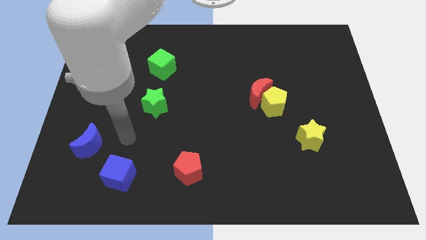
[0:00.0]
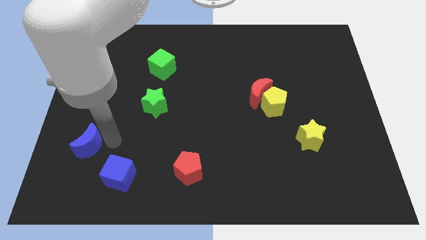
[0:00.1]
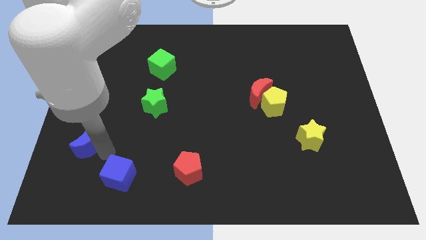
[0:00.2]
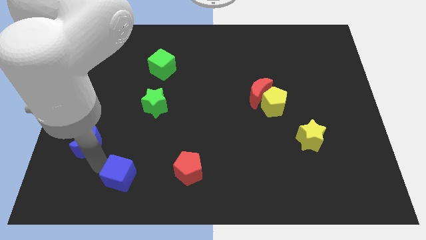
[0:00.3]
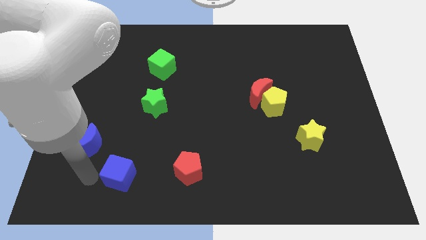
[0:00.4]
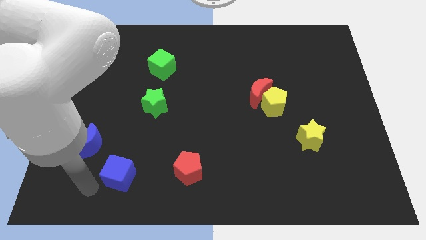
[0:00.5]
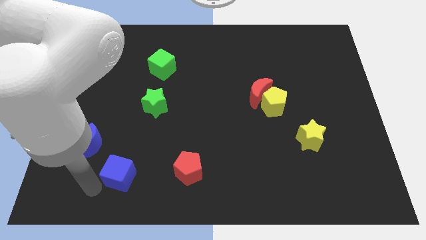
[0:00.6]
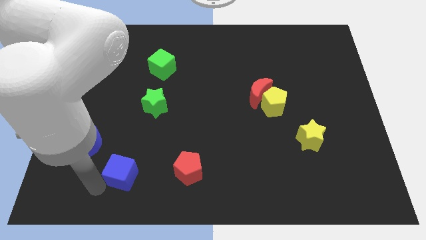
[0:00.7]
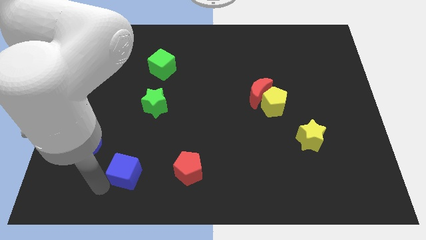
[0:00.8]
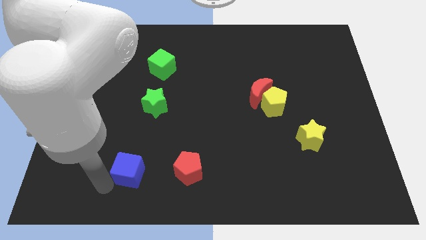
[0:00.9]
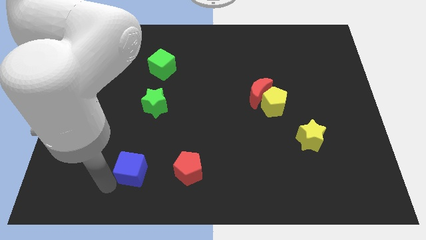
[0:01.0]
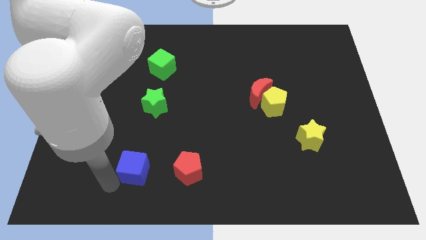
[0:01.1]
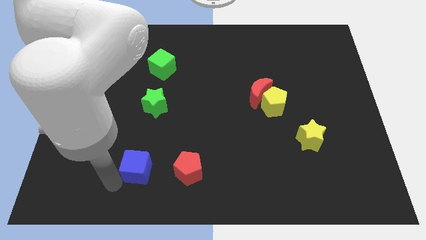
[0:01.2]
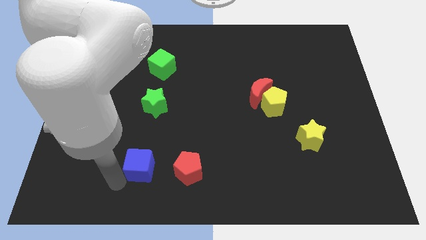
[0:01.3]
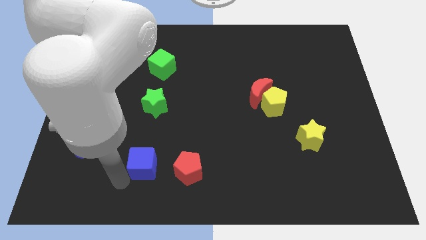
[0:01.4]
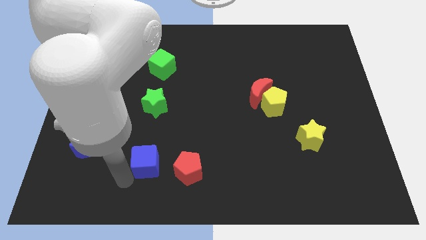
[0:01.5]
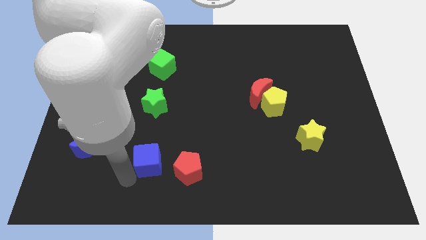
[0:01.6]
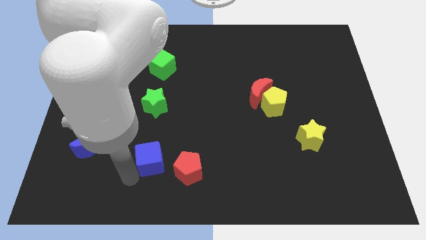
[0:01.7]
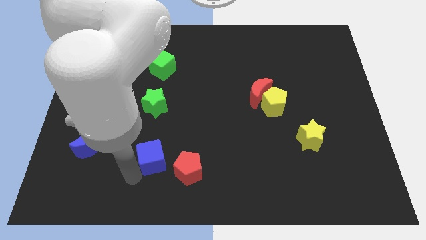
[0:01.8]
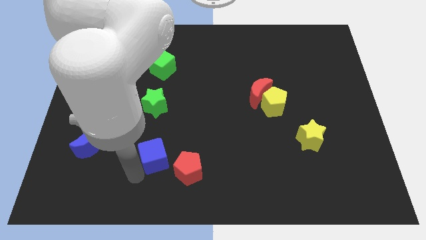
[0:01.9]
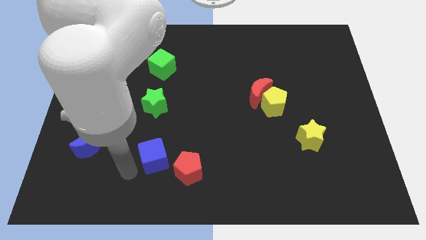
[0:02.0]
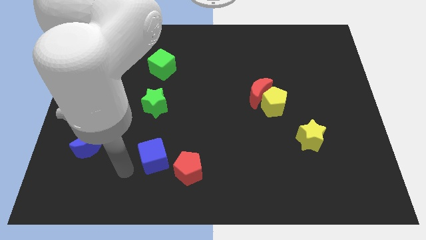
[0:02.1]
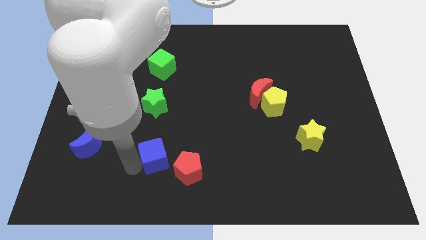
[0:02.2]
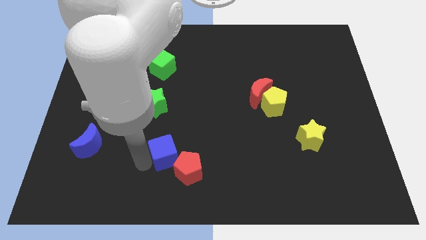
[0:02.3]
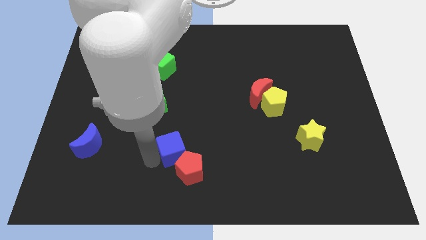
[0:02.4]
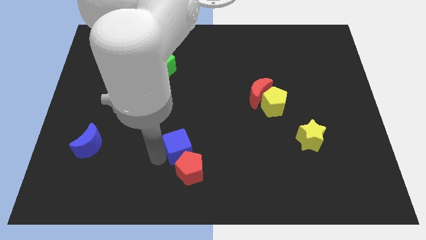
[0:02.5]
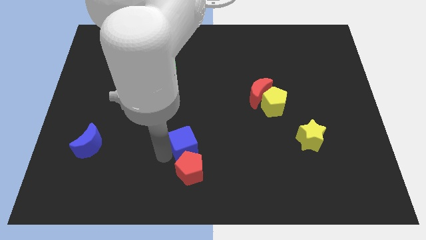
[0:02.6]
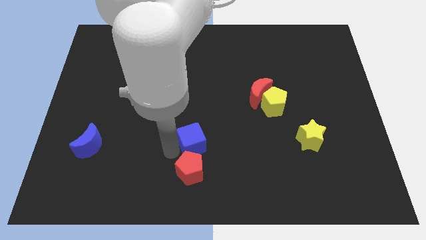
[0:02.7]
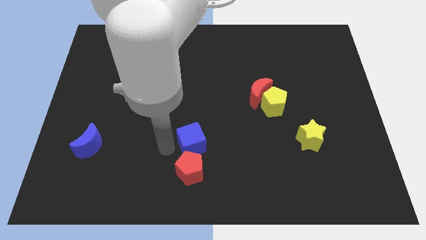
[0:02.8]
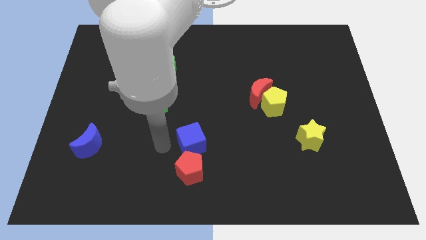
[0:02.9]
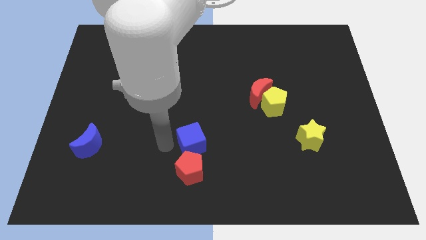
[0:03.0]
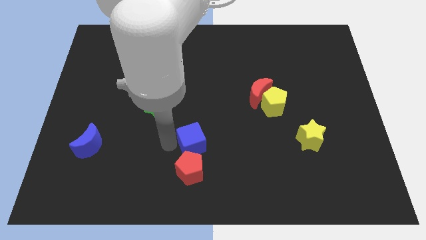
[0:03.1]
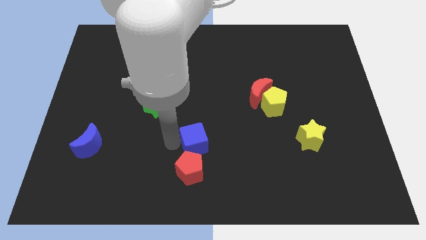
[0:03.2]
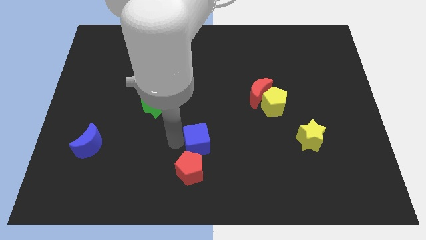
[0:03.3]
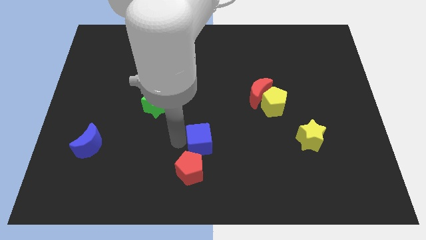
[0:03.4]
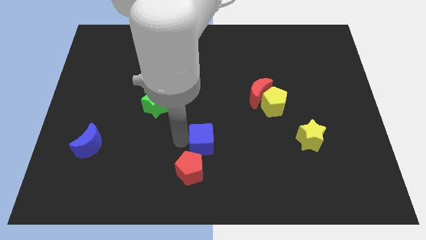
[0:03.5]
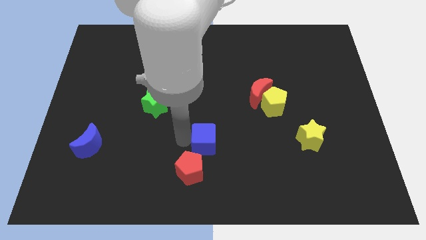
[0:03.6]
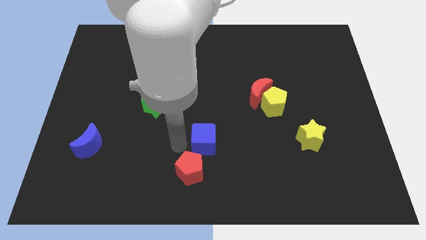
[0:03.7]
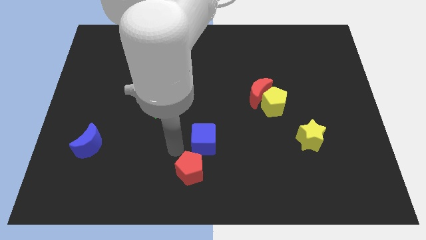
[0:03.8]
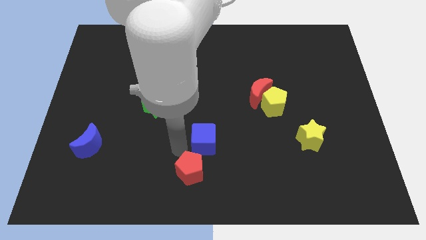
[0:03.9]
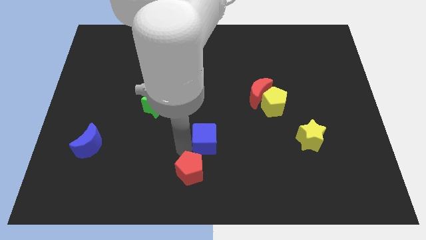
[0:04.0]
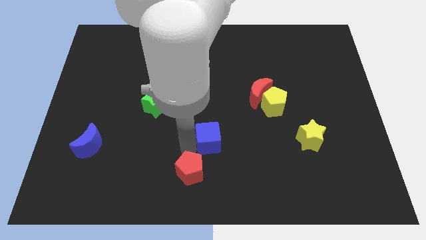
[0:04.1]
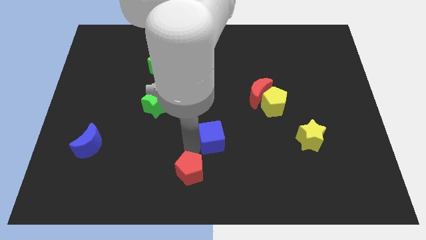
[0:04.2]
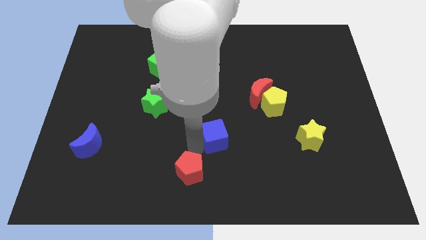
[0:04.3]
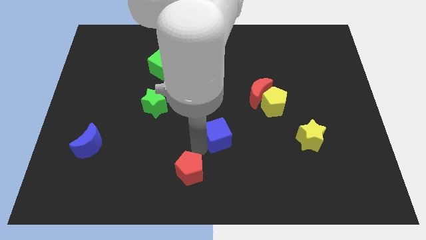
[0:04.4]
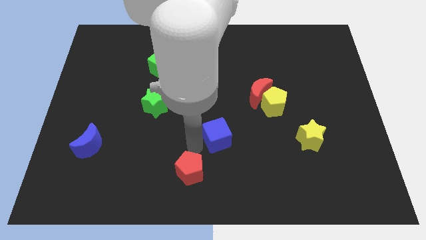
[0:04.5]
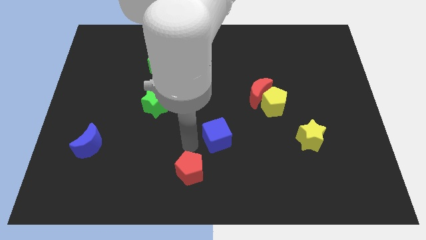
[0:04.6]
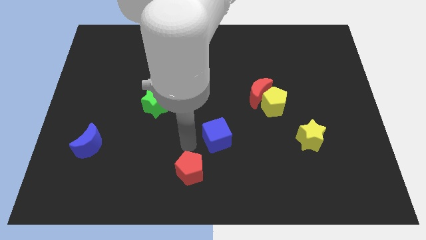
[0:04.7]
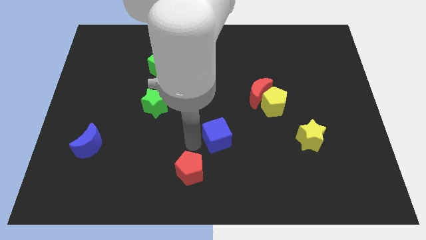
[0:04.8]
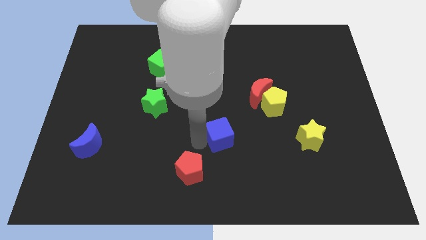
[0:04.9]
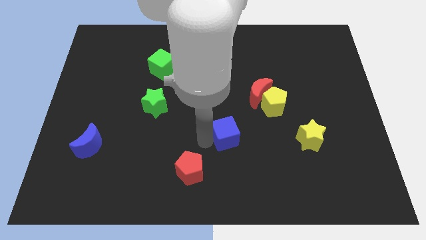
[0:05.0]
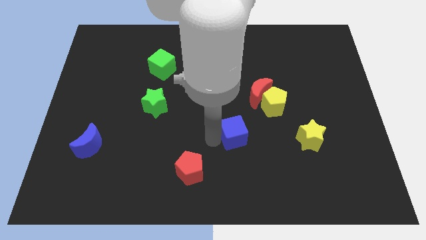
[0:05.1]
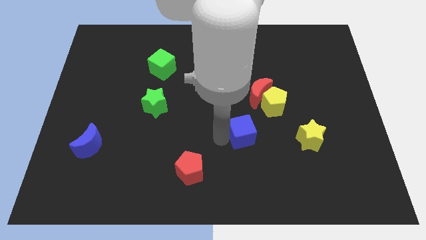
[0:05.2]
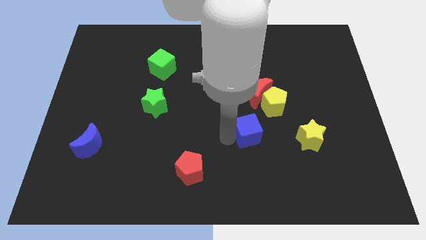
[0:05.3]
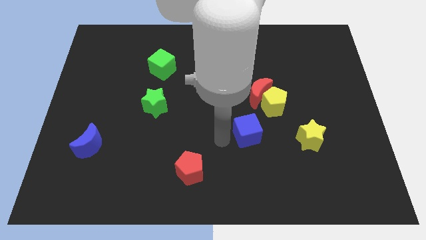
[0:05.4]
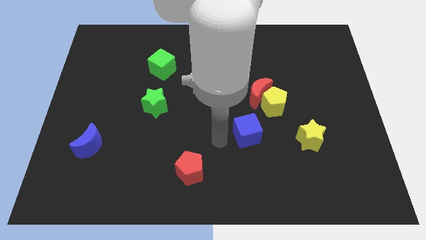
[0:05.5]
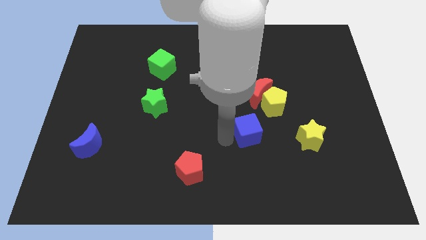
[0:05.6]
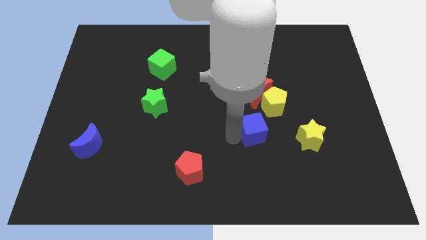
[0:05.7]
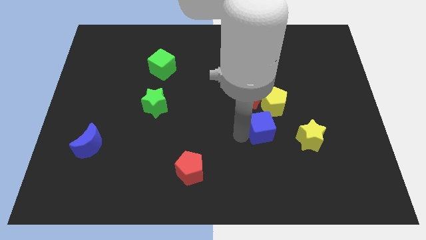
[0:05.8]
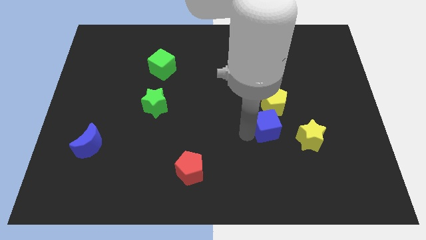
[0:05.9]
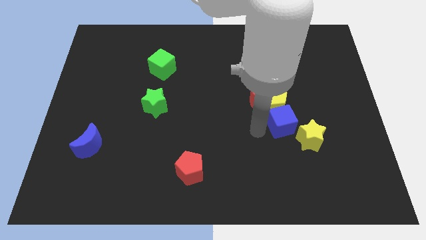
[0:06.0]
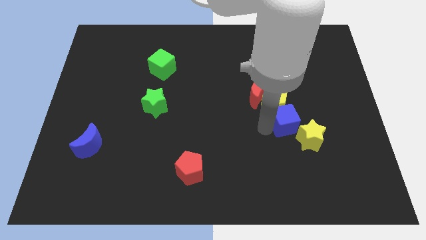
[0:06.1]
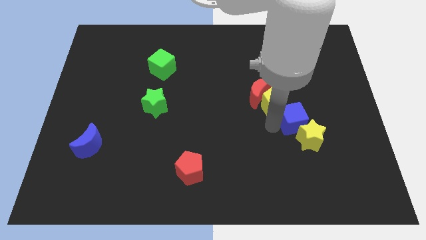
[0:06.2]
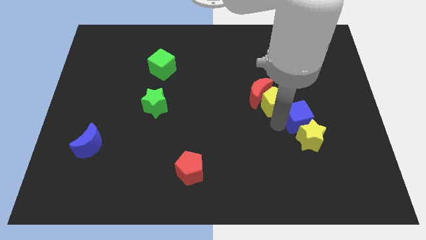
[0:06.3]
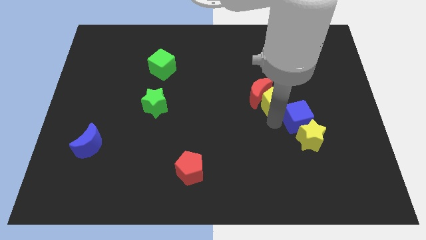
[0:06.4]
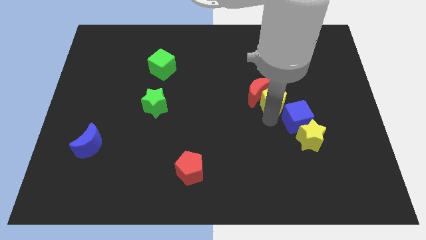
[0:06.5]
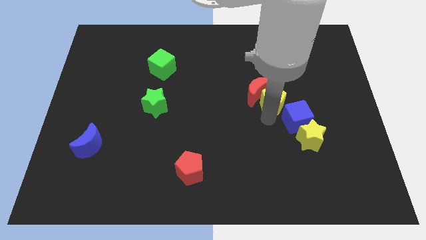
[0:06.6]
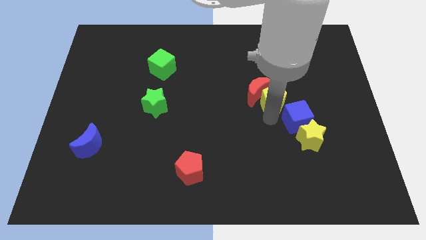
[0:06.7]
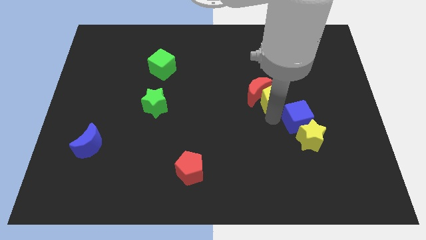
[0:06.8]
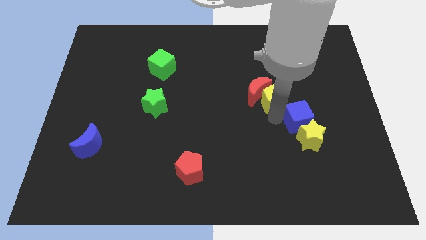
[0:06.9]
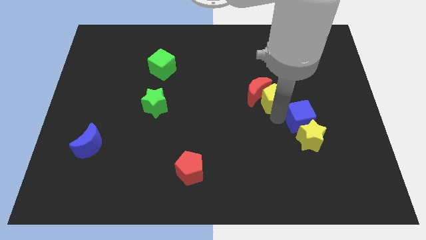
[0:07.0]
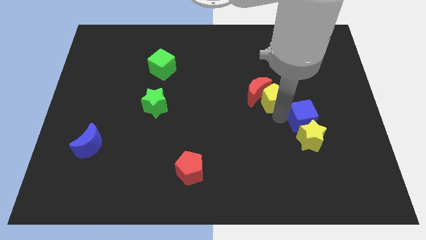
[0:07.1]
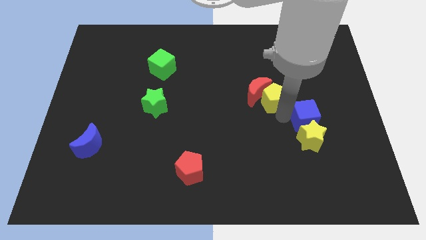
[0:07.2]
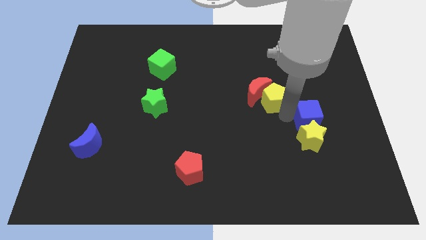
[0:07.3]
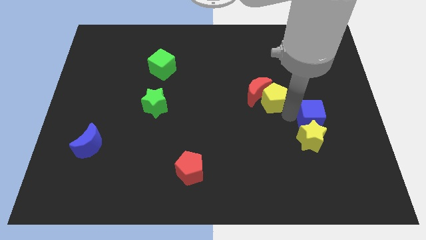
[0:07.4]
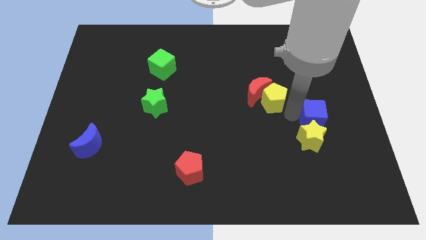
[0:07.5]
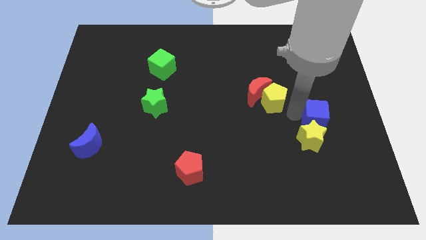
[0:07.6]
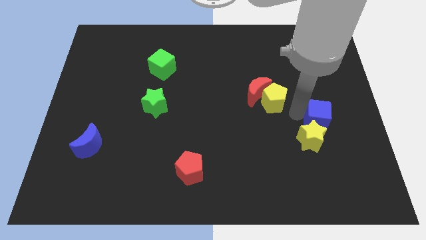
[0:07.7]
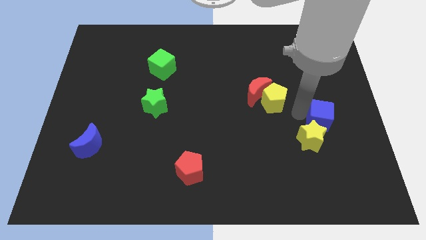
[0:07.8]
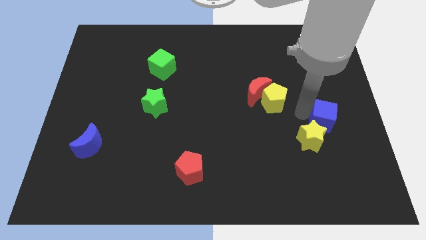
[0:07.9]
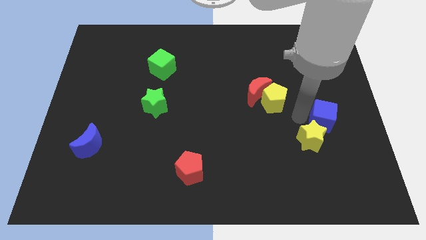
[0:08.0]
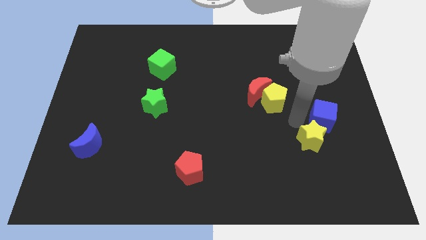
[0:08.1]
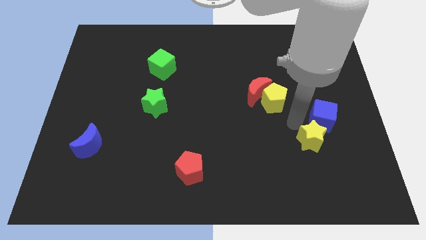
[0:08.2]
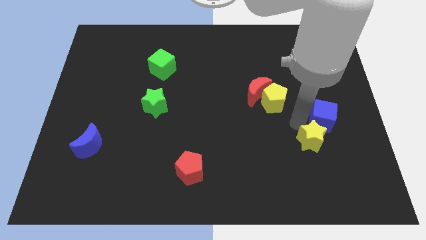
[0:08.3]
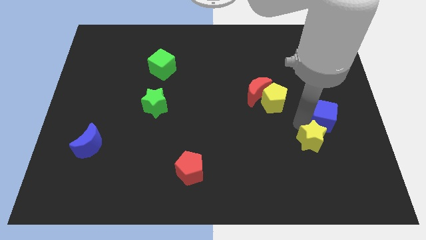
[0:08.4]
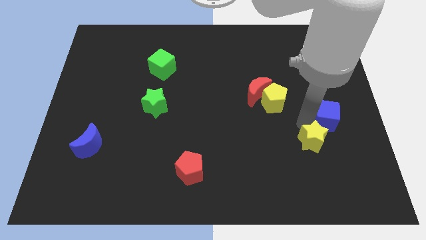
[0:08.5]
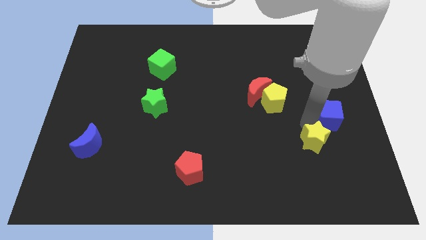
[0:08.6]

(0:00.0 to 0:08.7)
slide the blue cube to the center right
